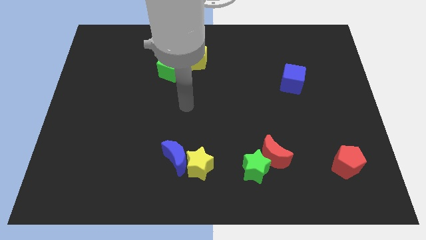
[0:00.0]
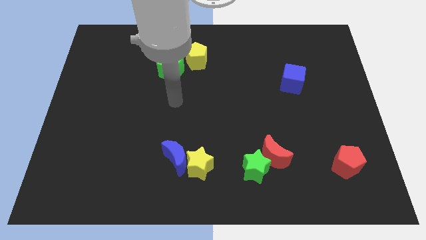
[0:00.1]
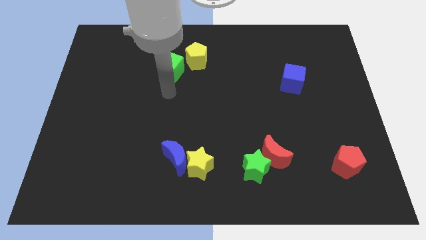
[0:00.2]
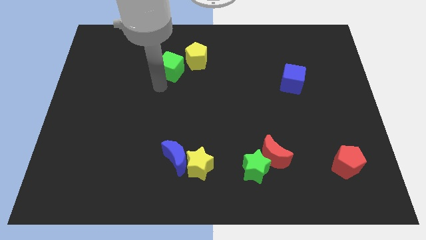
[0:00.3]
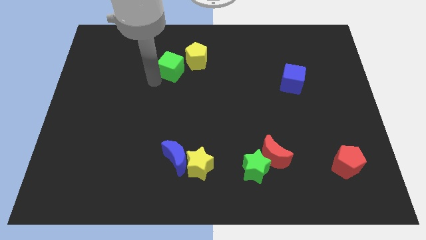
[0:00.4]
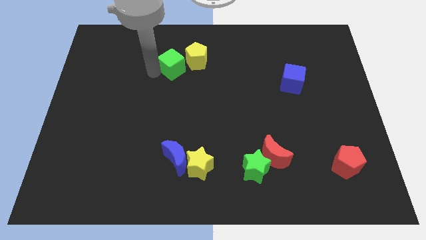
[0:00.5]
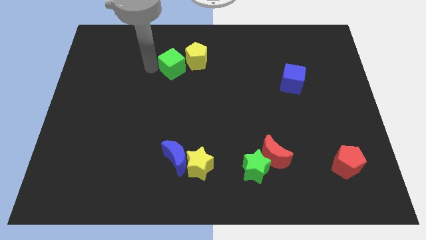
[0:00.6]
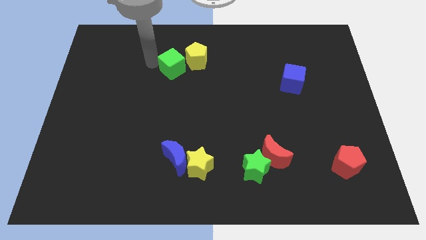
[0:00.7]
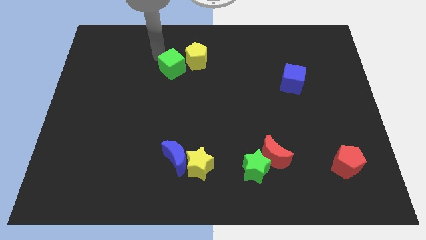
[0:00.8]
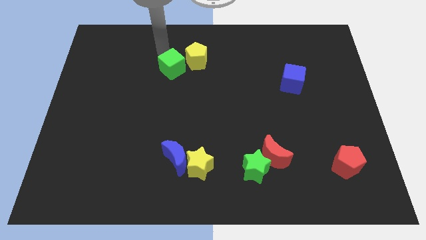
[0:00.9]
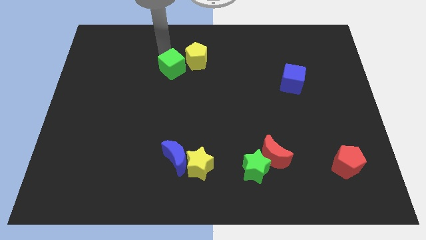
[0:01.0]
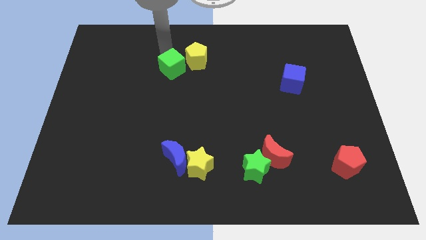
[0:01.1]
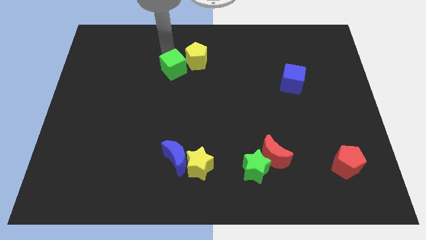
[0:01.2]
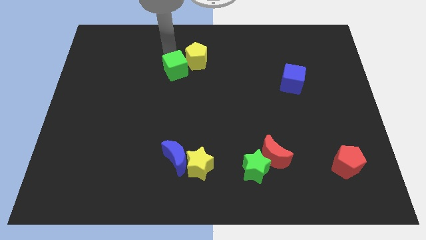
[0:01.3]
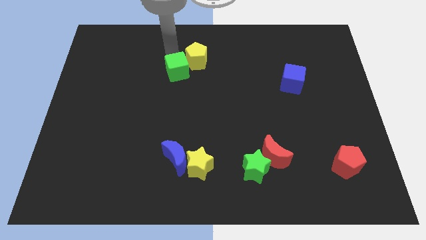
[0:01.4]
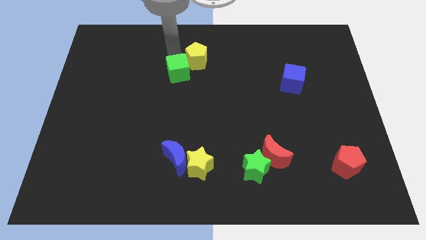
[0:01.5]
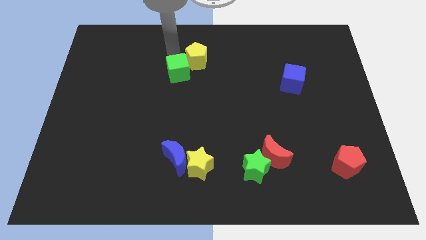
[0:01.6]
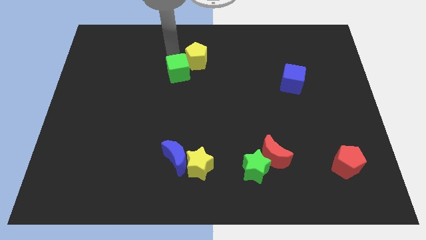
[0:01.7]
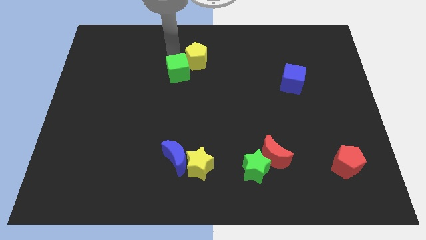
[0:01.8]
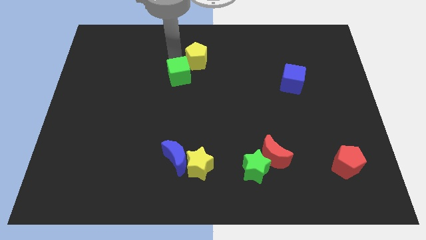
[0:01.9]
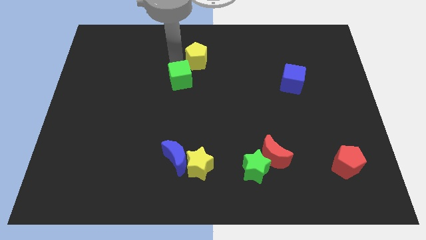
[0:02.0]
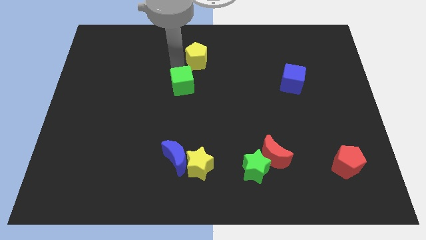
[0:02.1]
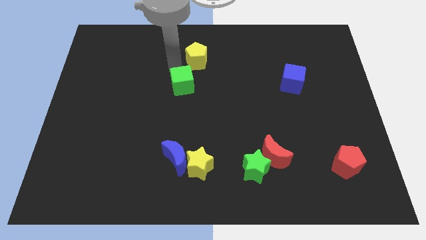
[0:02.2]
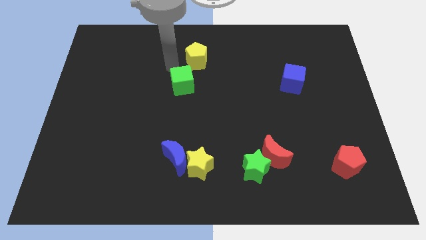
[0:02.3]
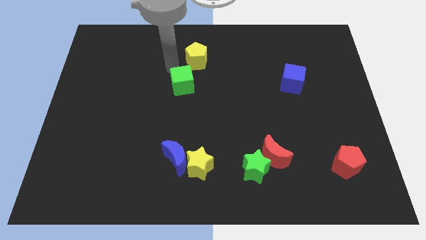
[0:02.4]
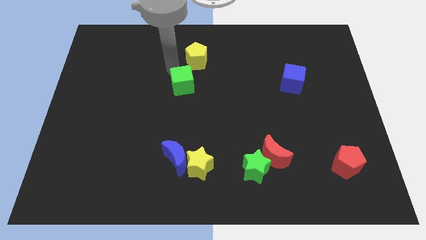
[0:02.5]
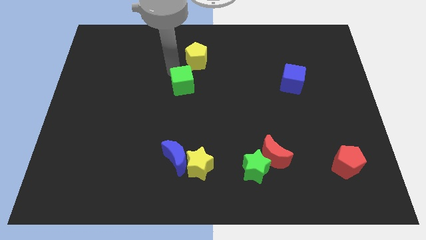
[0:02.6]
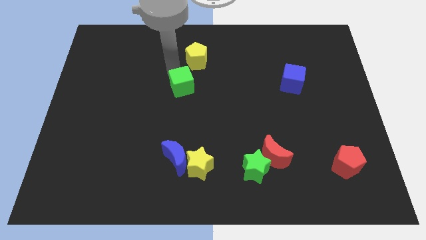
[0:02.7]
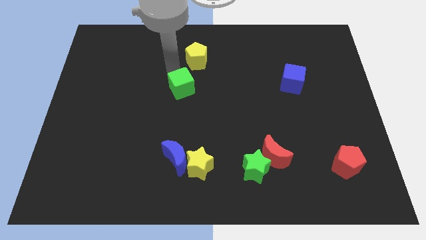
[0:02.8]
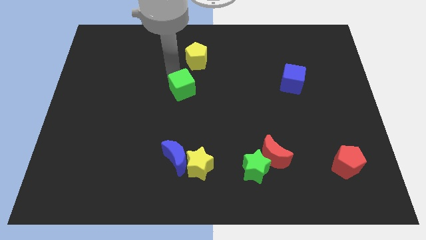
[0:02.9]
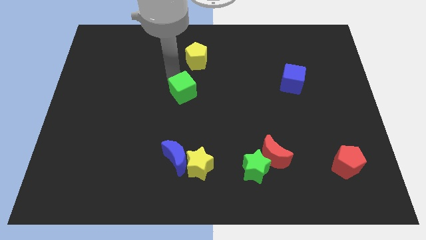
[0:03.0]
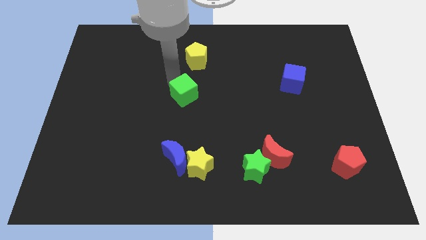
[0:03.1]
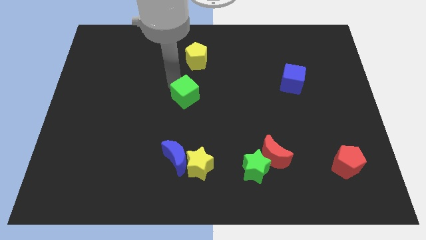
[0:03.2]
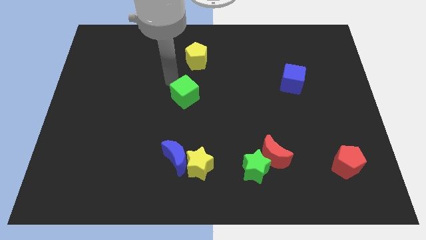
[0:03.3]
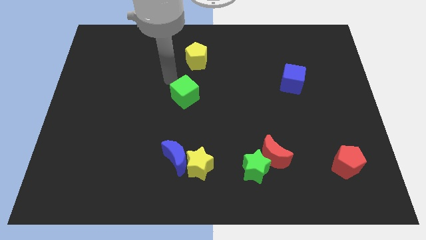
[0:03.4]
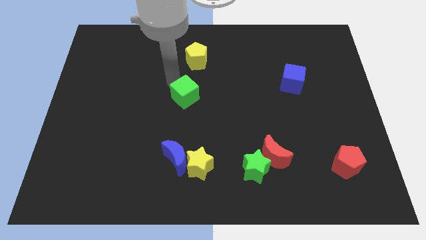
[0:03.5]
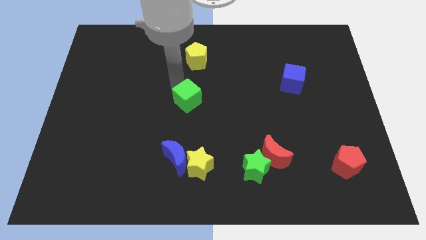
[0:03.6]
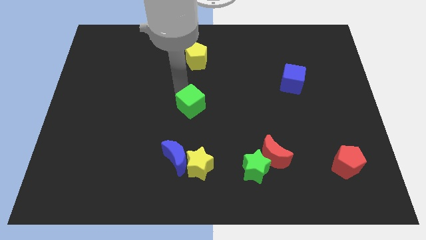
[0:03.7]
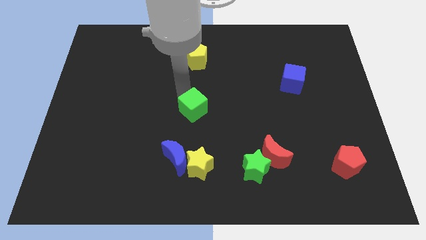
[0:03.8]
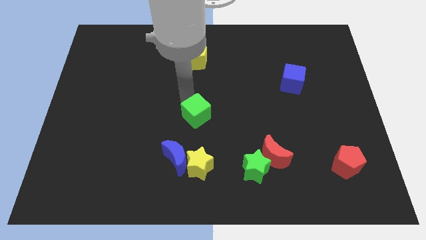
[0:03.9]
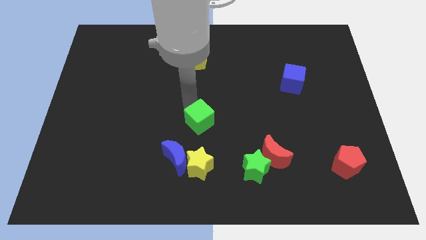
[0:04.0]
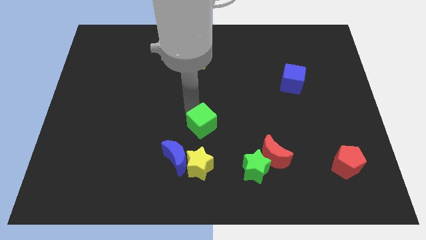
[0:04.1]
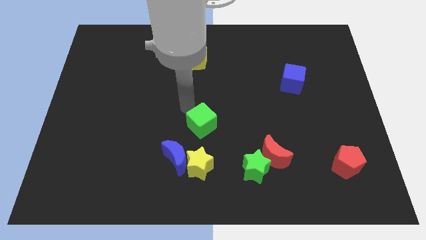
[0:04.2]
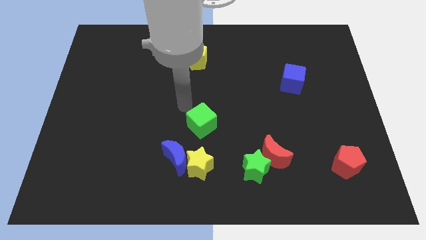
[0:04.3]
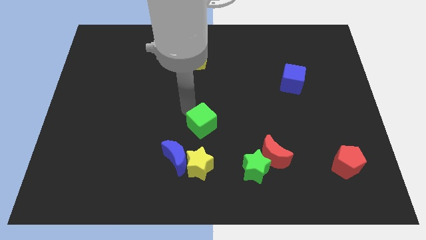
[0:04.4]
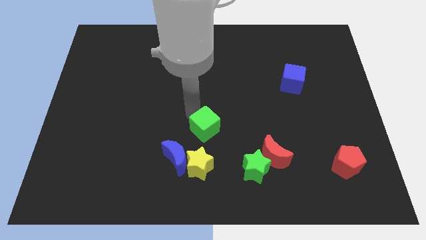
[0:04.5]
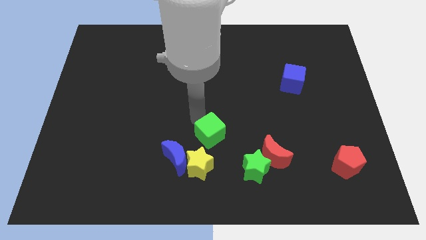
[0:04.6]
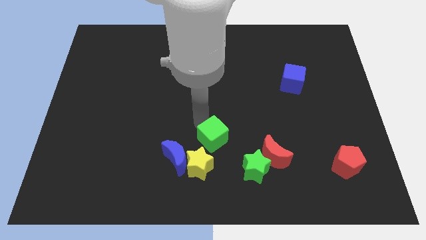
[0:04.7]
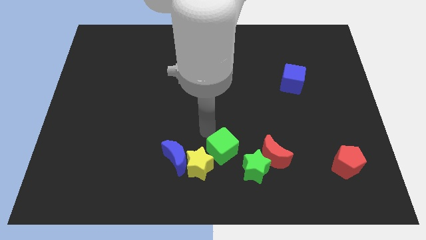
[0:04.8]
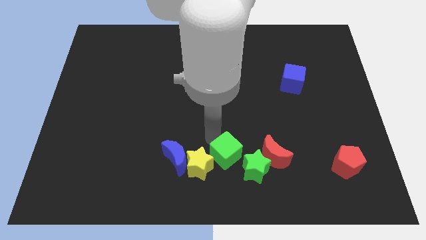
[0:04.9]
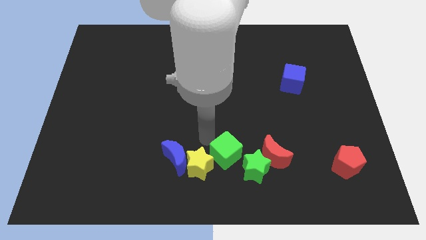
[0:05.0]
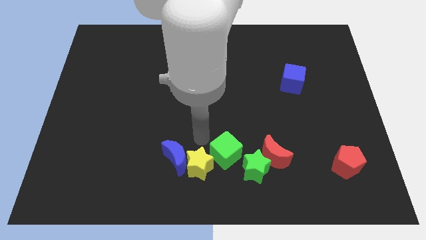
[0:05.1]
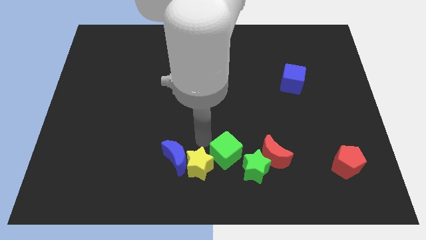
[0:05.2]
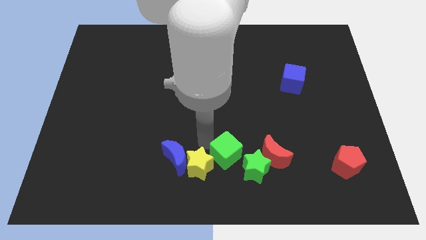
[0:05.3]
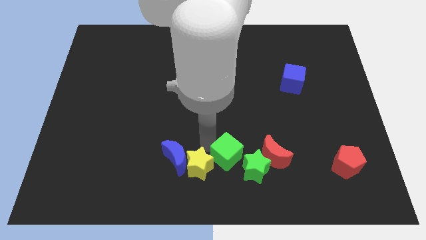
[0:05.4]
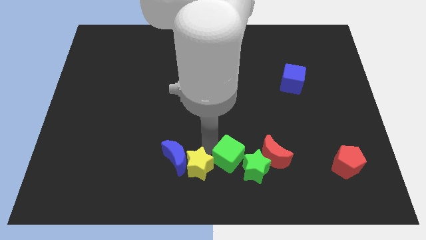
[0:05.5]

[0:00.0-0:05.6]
push the green cube close to the green star

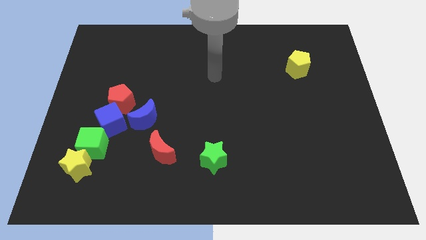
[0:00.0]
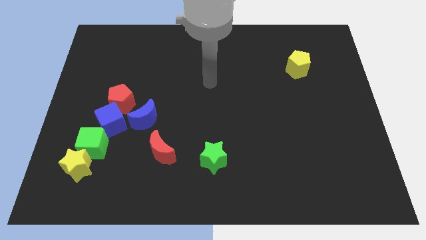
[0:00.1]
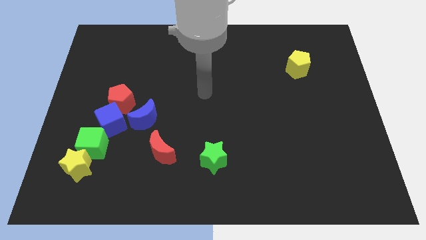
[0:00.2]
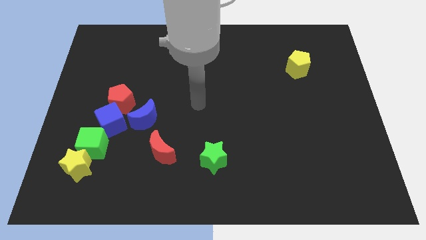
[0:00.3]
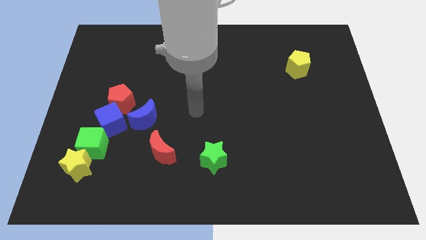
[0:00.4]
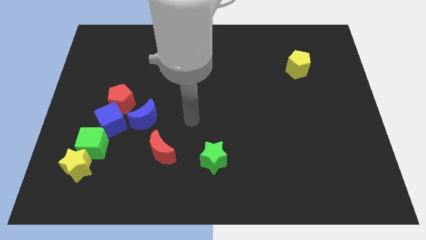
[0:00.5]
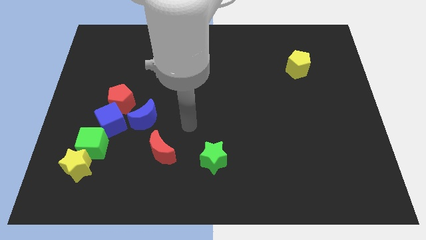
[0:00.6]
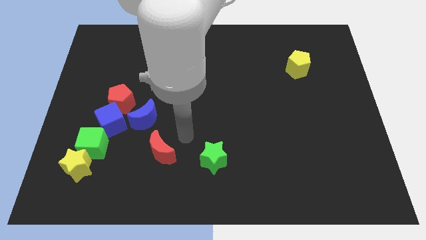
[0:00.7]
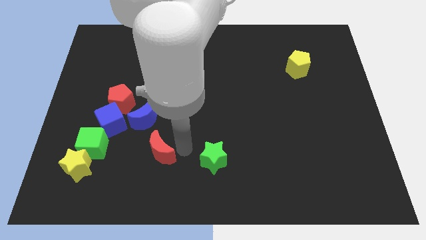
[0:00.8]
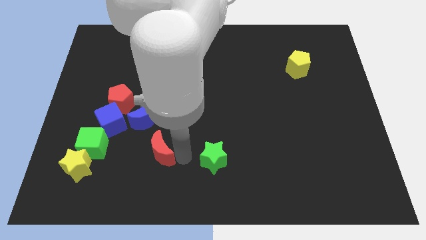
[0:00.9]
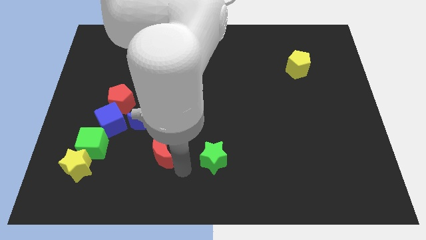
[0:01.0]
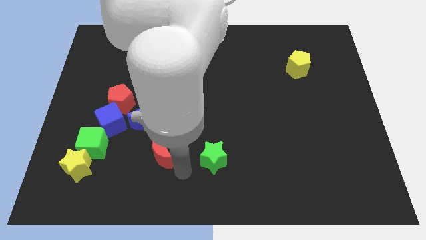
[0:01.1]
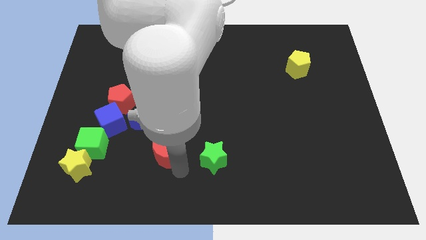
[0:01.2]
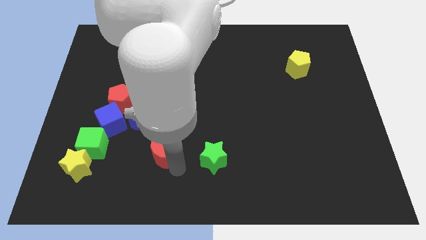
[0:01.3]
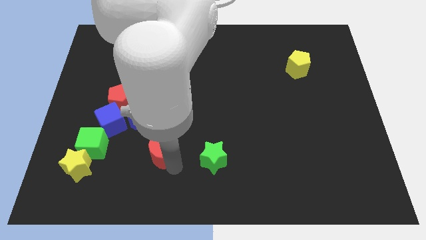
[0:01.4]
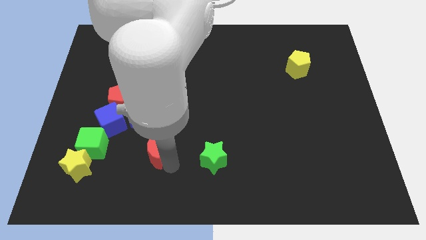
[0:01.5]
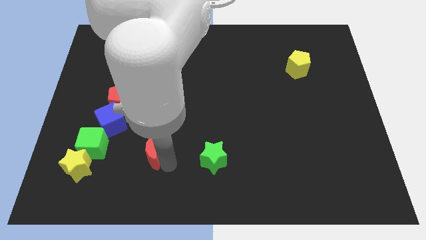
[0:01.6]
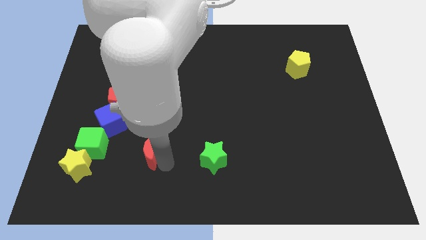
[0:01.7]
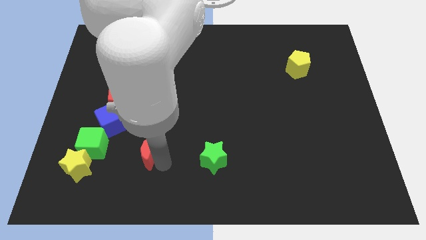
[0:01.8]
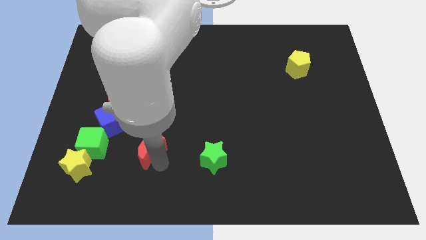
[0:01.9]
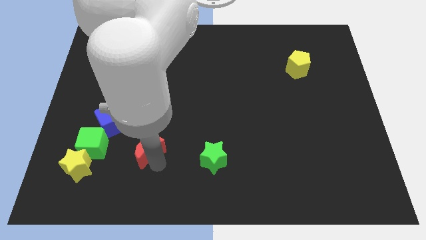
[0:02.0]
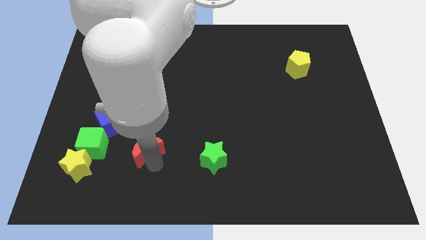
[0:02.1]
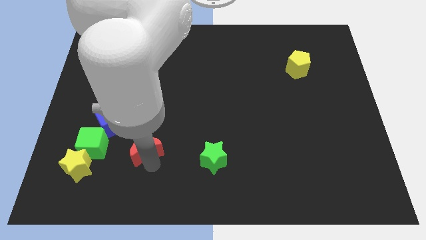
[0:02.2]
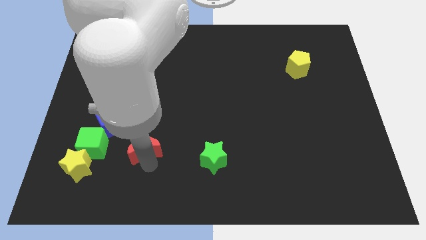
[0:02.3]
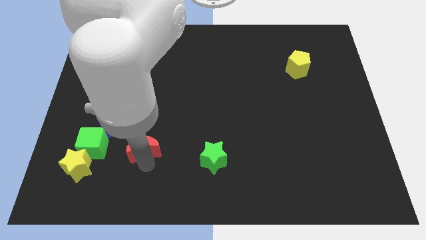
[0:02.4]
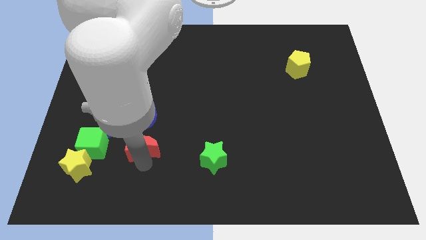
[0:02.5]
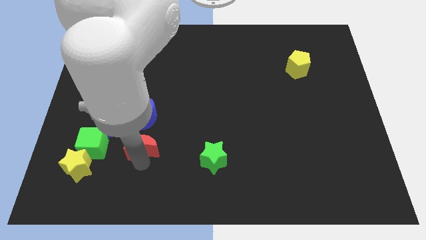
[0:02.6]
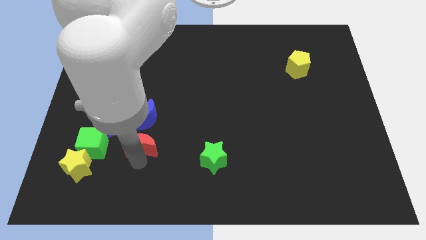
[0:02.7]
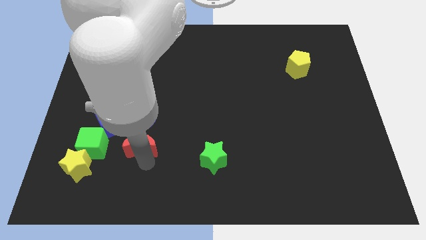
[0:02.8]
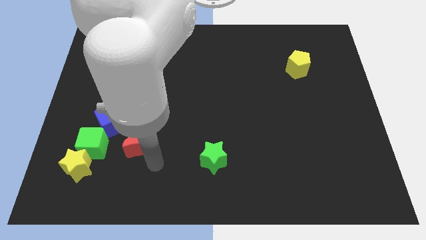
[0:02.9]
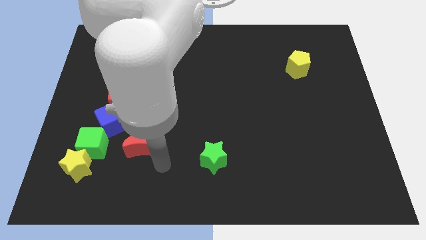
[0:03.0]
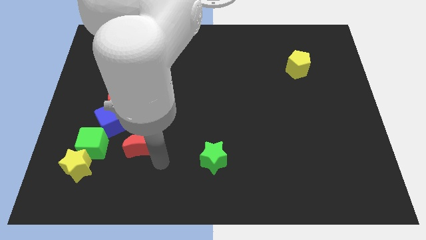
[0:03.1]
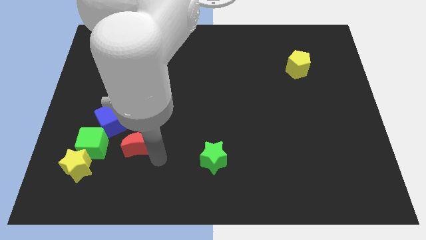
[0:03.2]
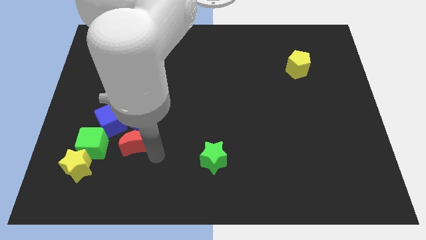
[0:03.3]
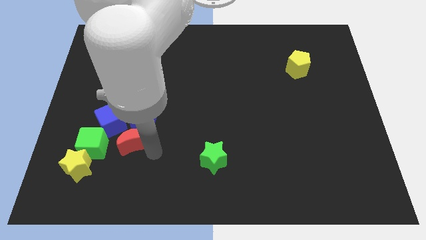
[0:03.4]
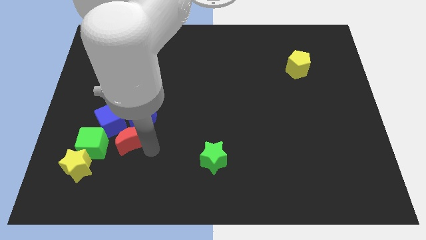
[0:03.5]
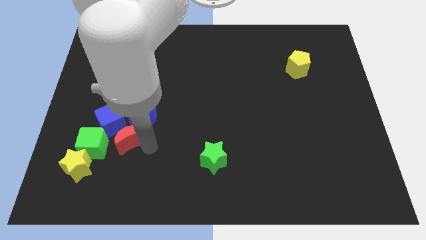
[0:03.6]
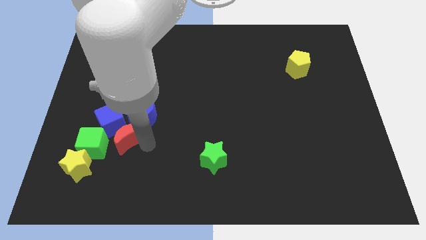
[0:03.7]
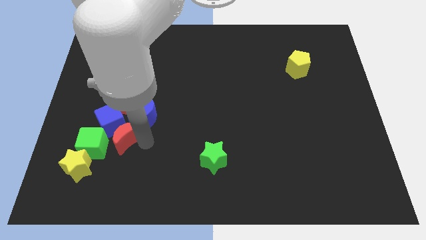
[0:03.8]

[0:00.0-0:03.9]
push the red moon towards the blue cube
